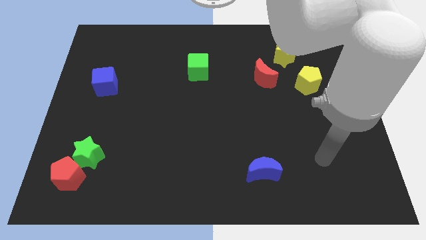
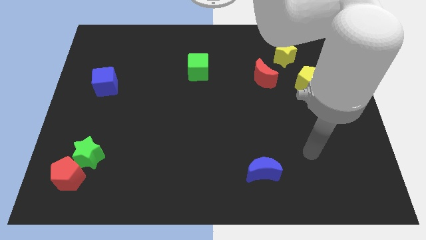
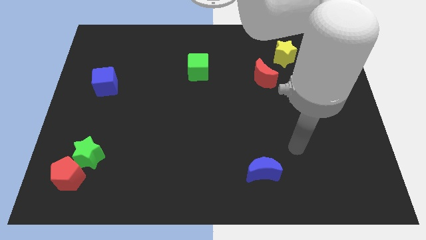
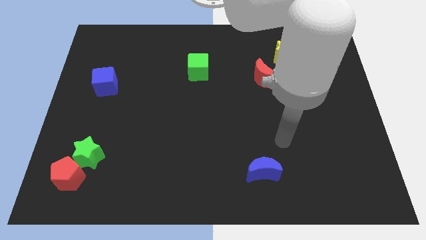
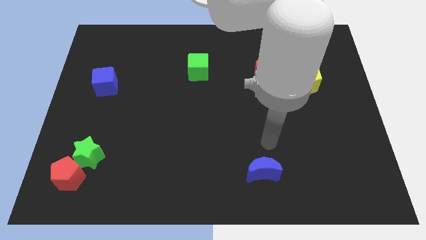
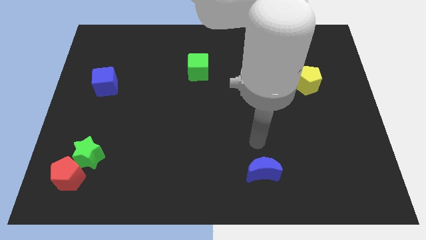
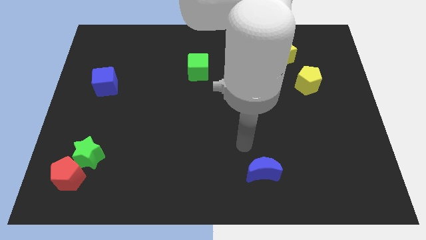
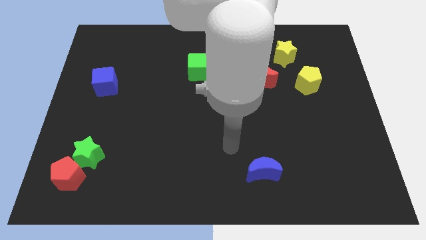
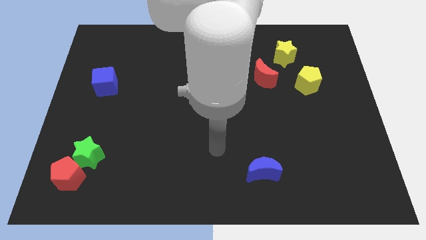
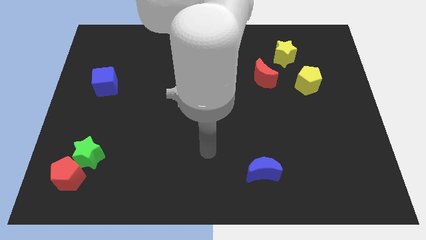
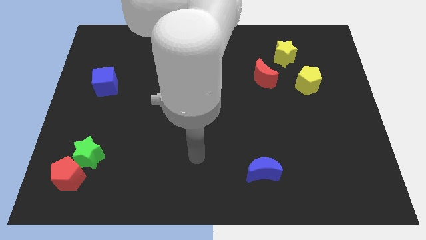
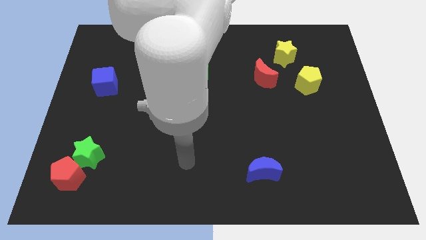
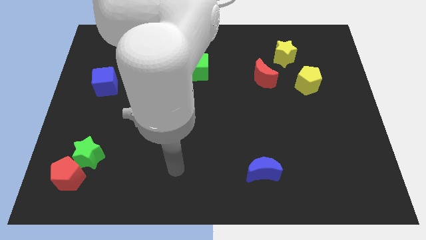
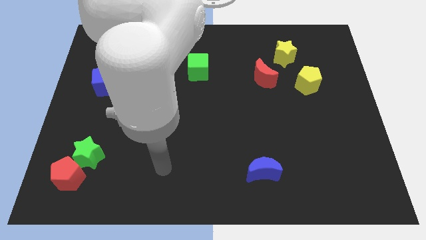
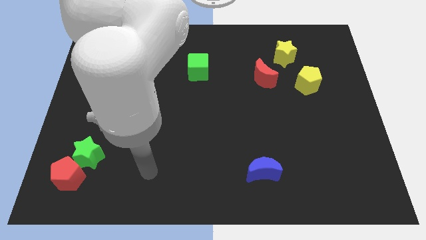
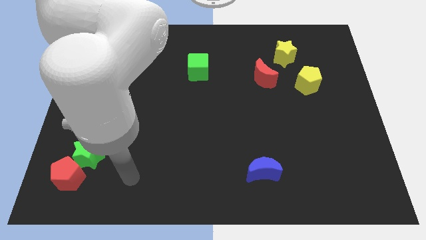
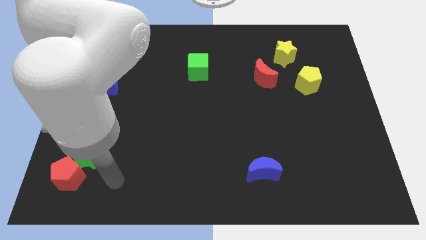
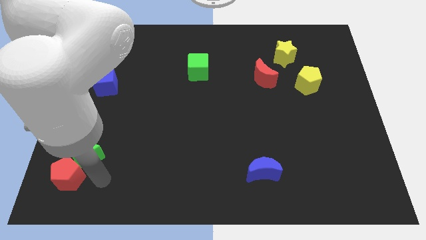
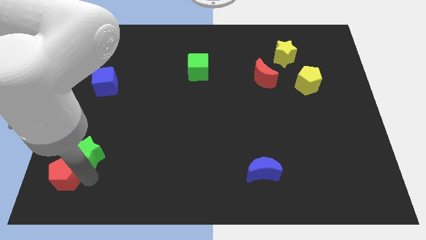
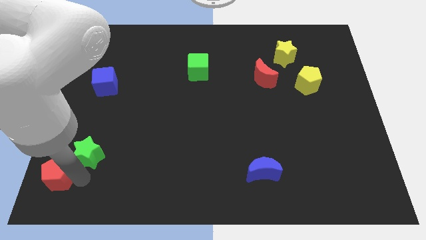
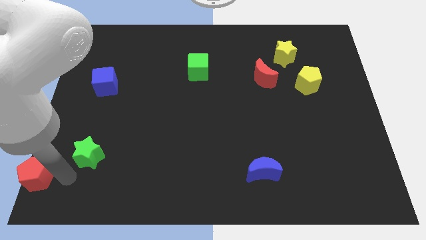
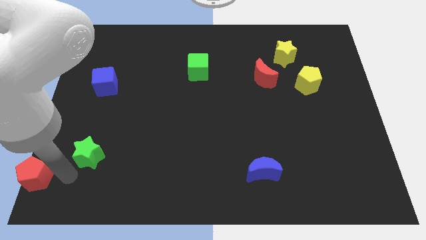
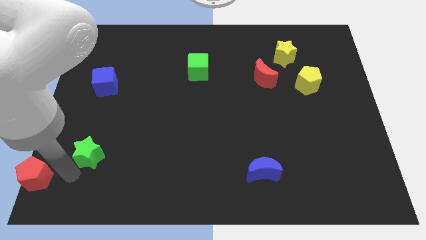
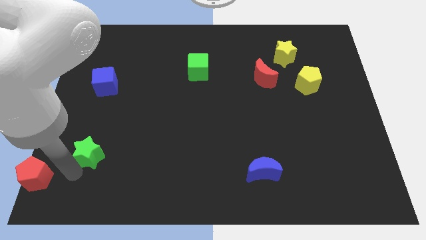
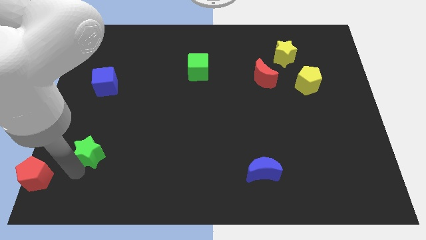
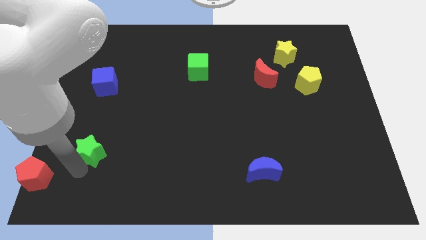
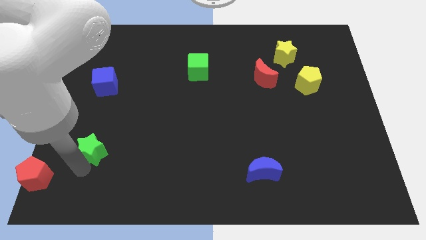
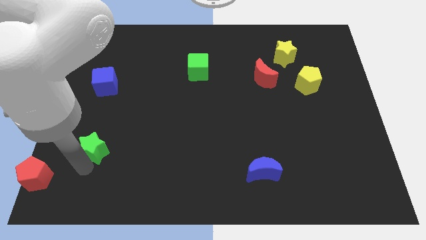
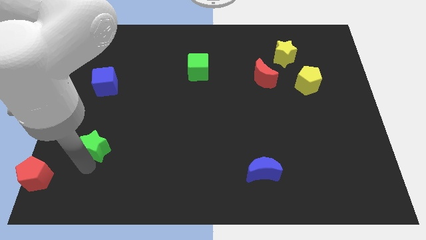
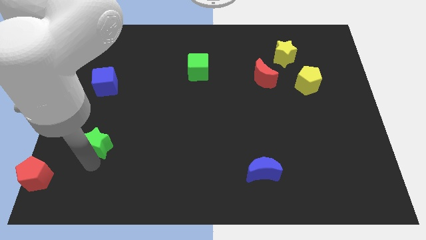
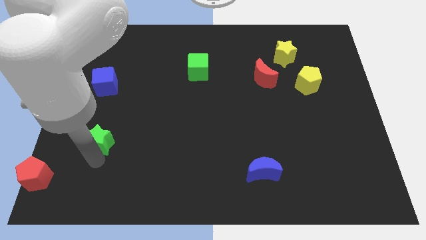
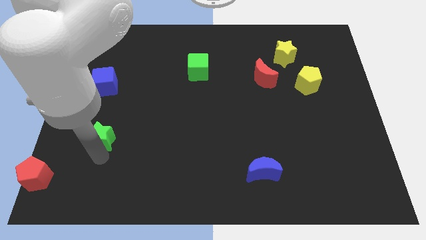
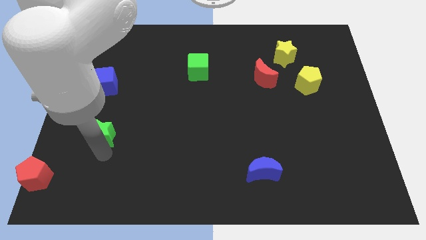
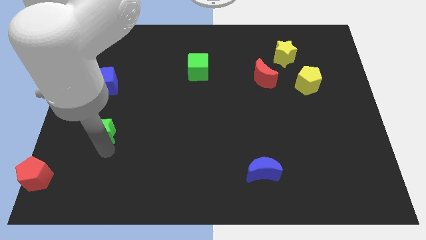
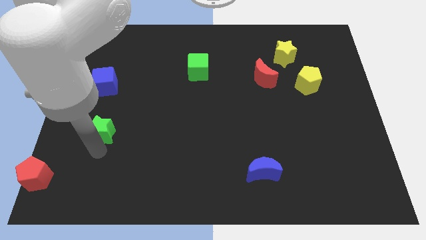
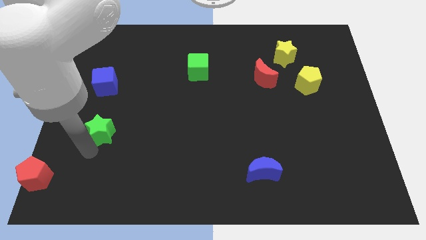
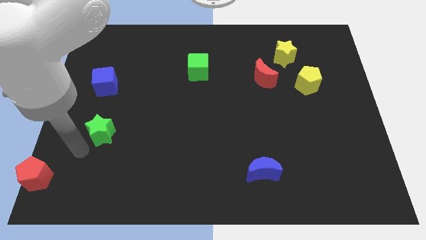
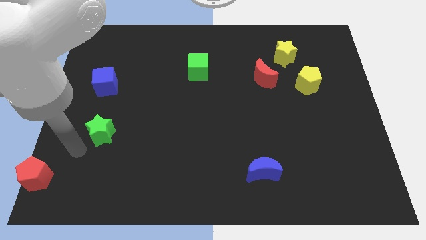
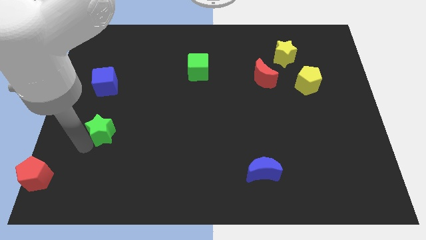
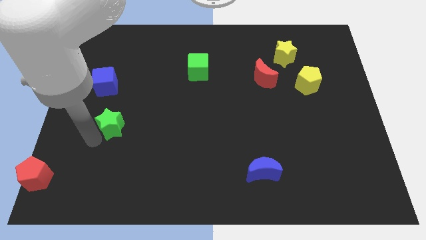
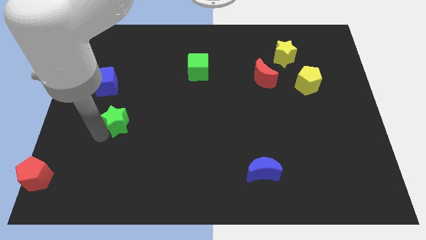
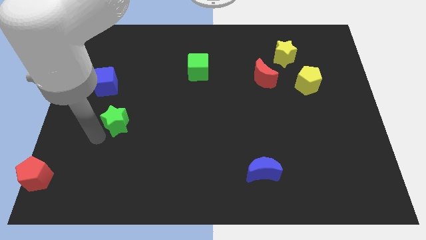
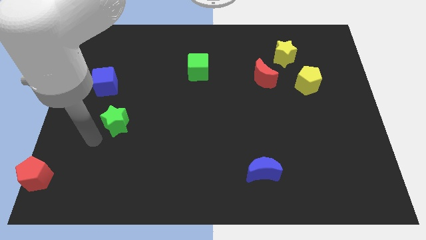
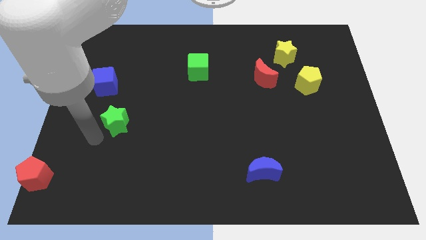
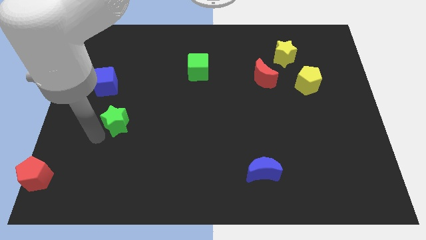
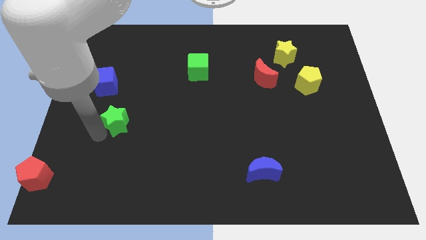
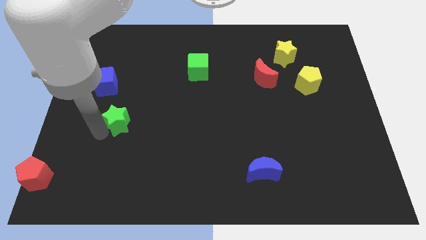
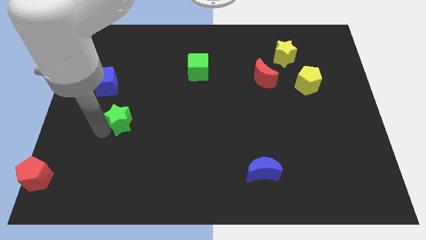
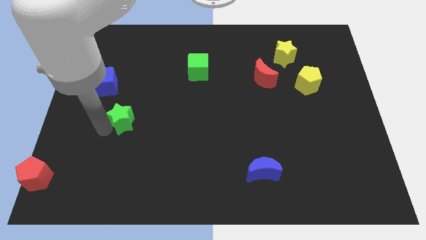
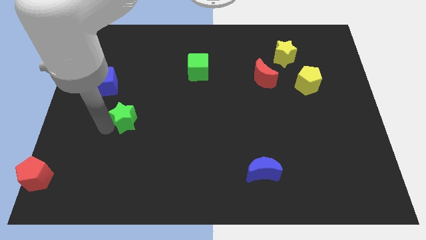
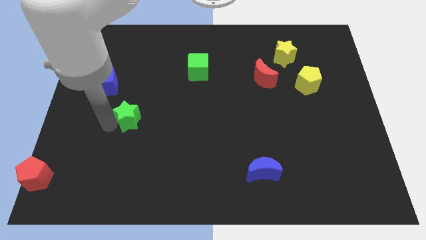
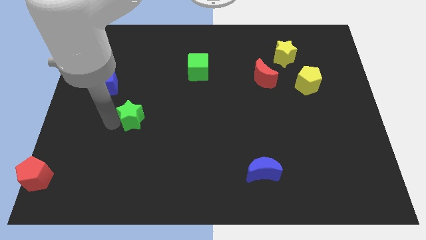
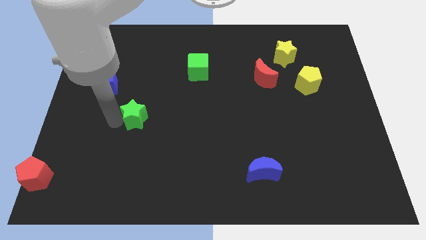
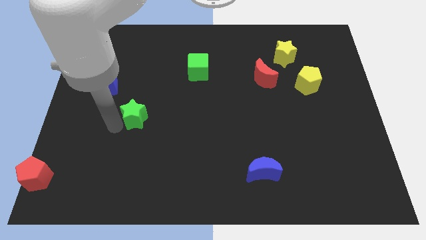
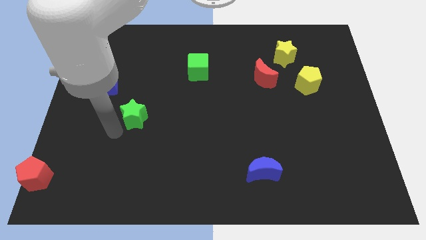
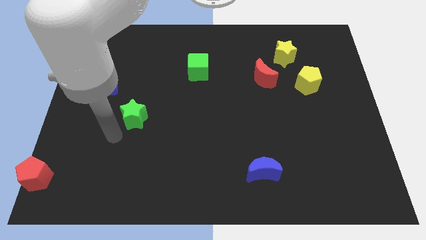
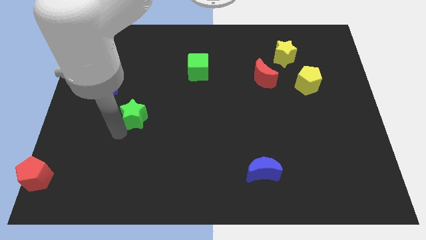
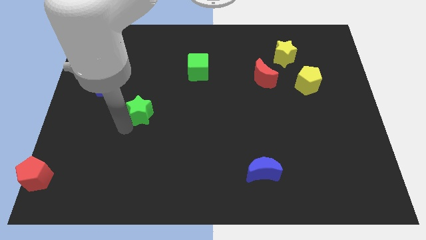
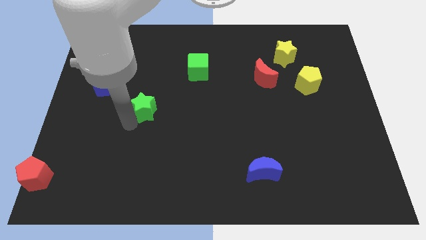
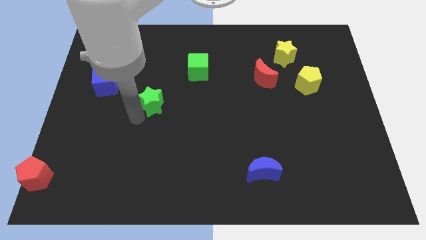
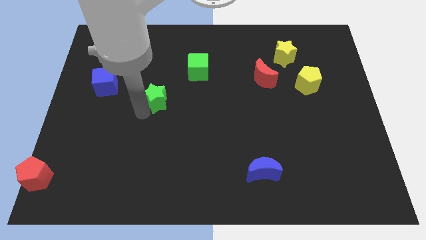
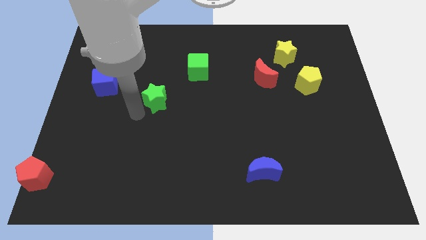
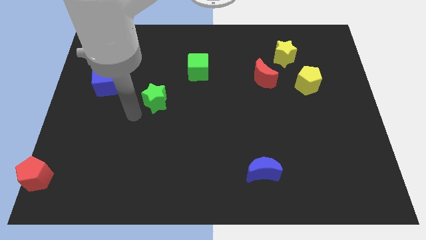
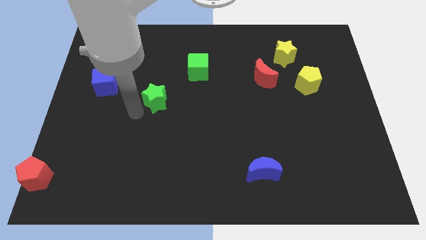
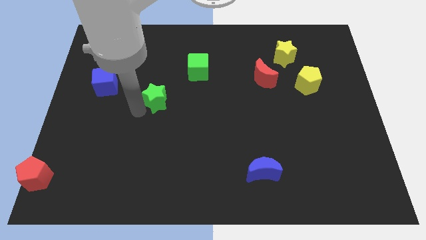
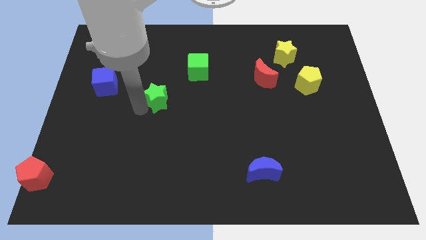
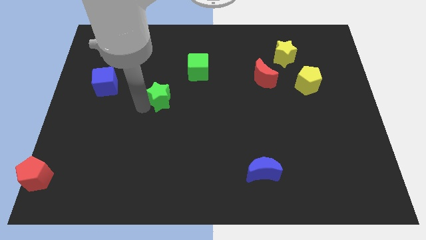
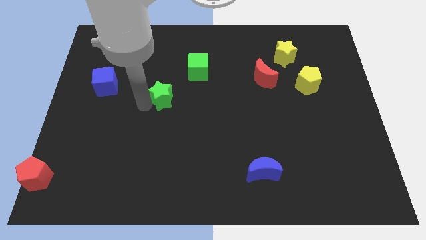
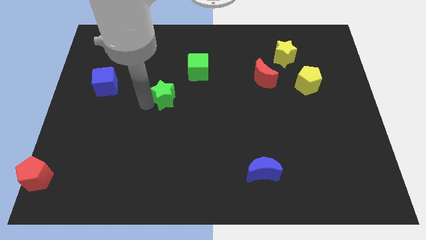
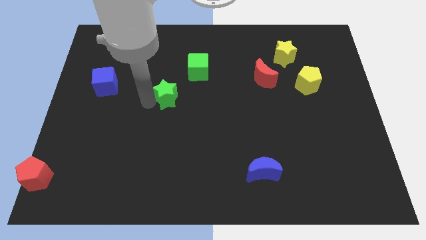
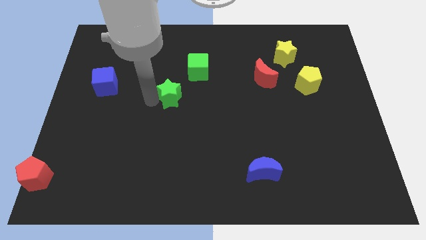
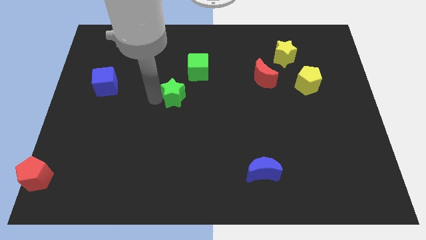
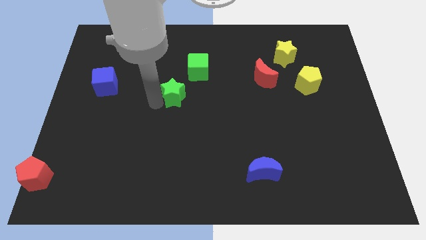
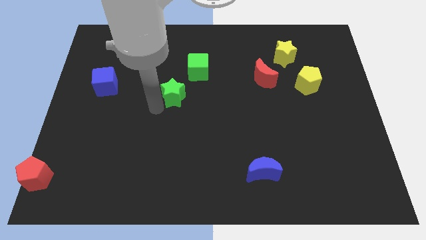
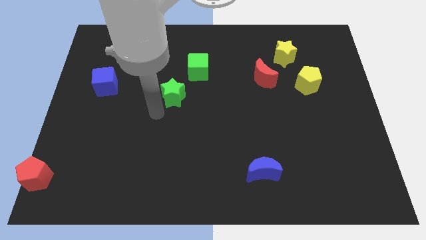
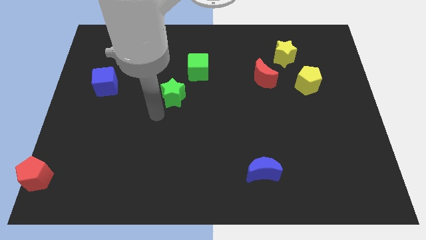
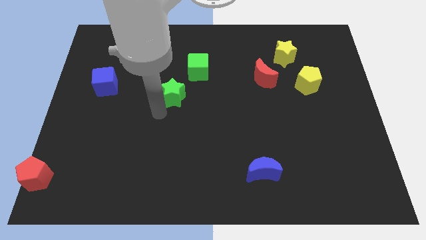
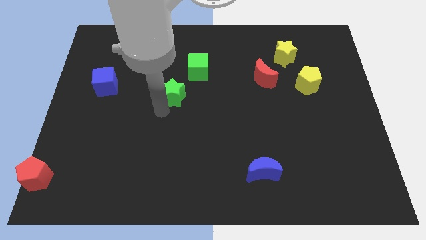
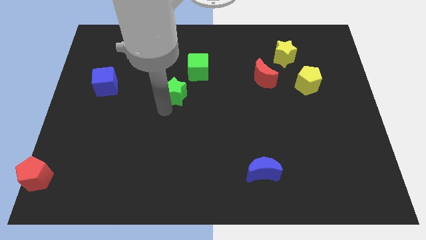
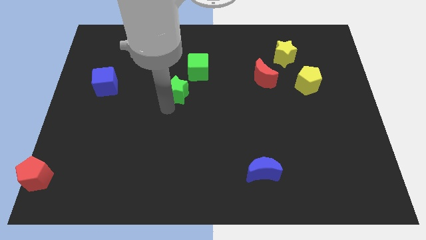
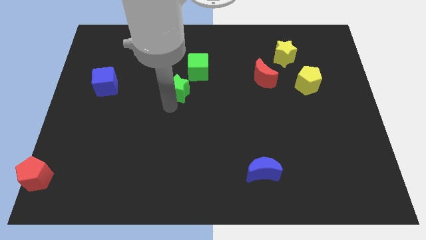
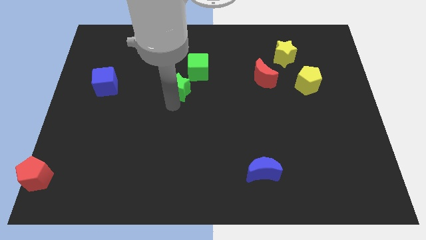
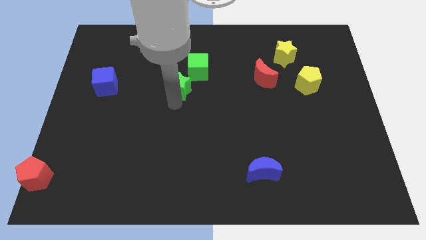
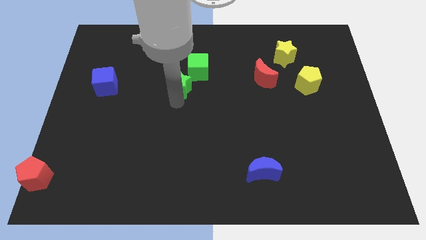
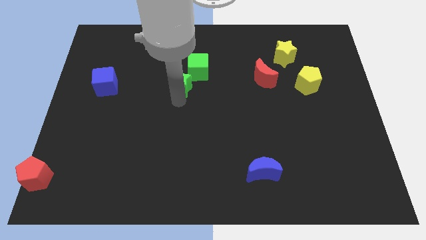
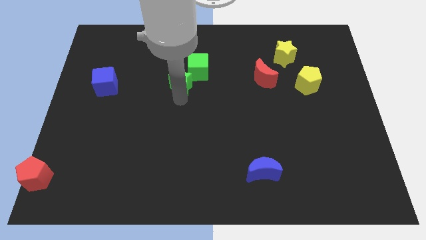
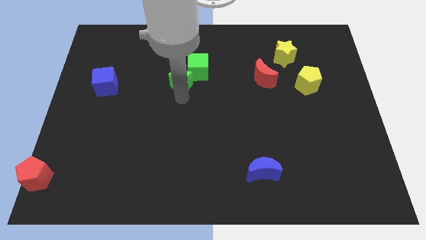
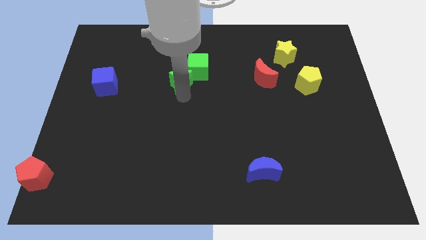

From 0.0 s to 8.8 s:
slide the green star close to the green cube
